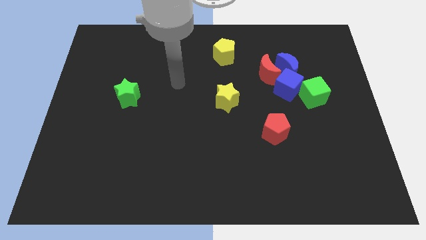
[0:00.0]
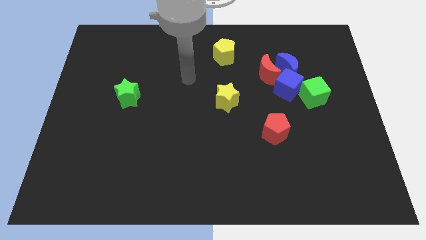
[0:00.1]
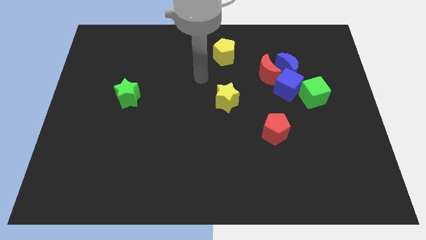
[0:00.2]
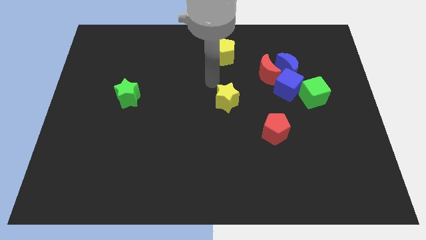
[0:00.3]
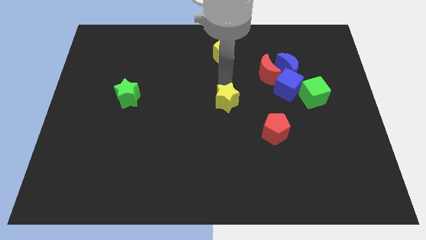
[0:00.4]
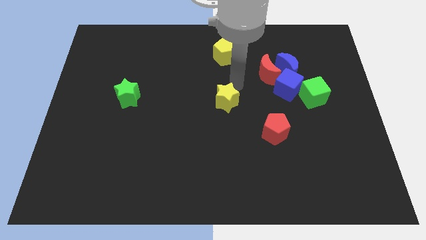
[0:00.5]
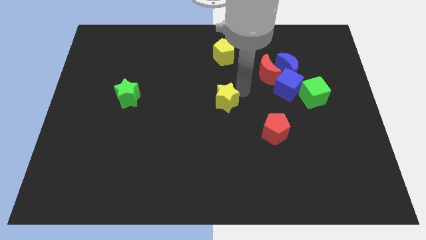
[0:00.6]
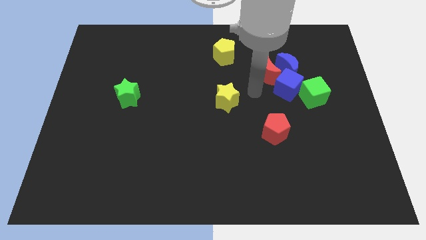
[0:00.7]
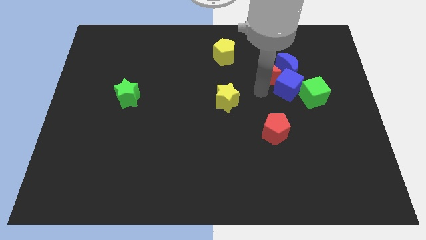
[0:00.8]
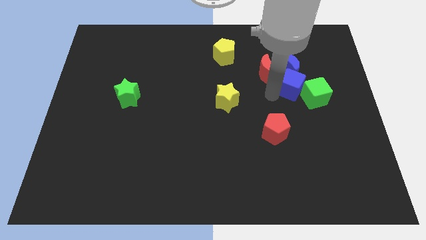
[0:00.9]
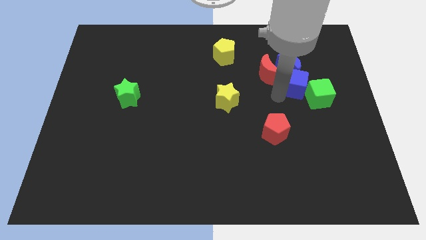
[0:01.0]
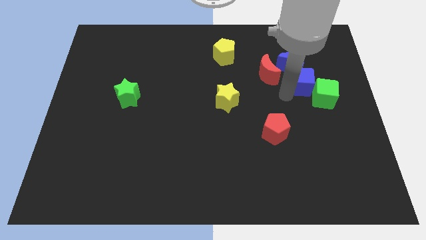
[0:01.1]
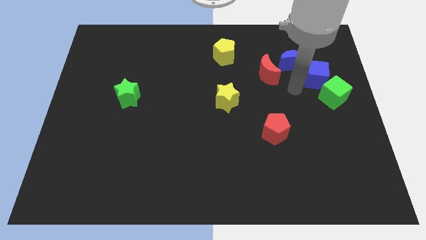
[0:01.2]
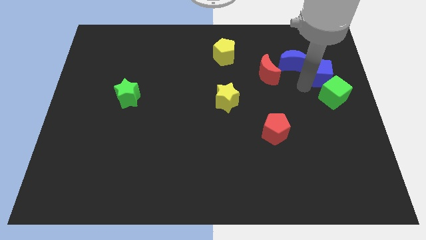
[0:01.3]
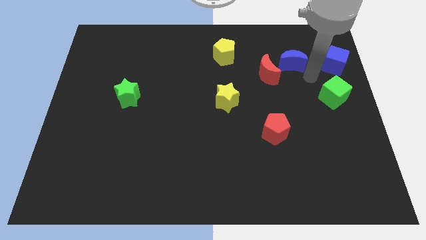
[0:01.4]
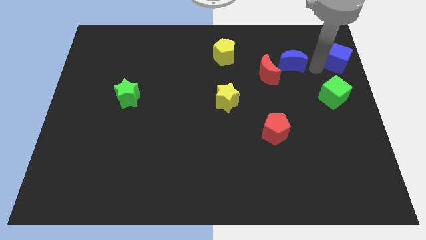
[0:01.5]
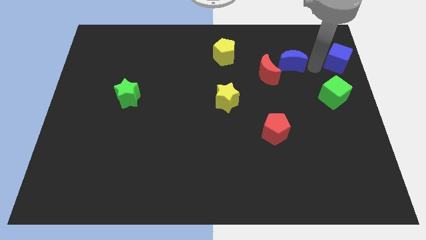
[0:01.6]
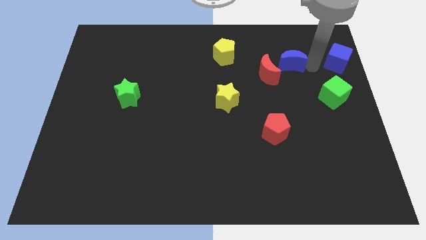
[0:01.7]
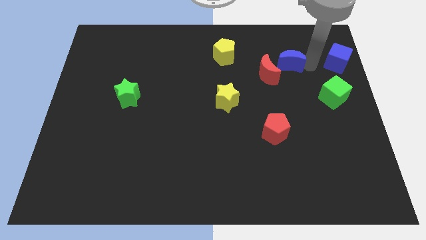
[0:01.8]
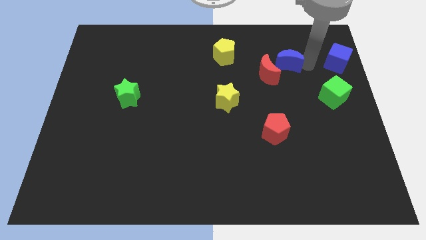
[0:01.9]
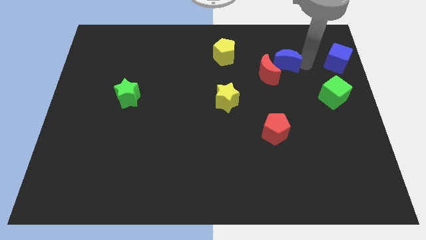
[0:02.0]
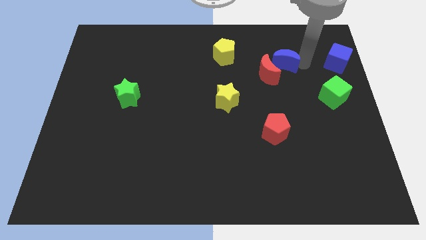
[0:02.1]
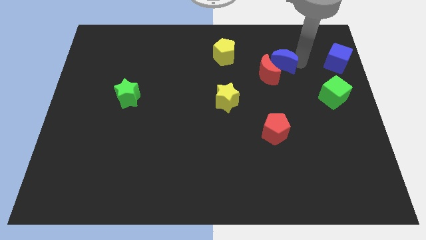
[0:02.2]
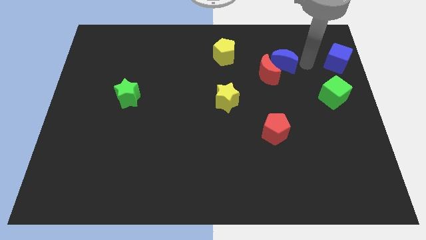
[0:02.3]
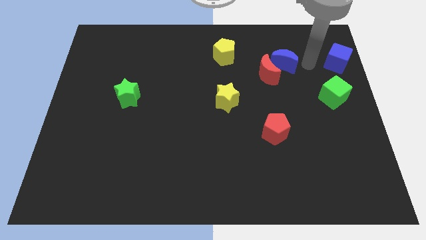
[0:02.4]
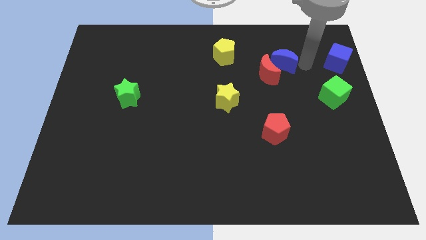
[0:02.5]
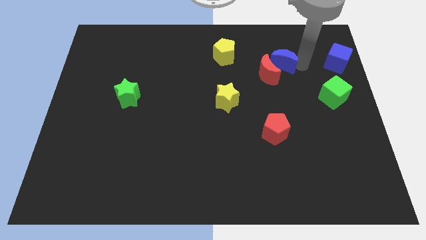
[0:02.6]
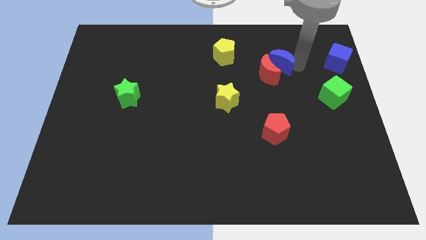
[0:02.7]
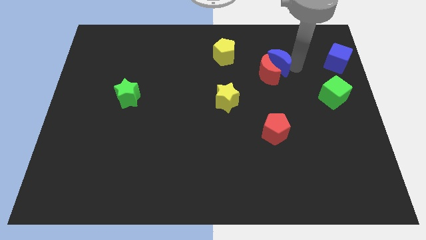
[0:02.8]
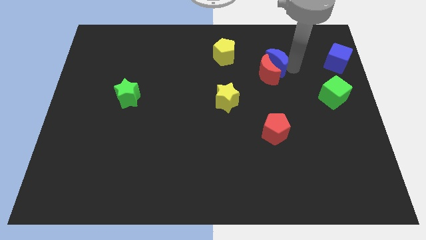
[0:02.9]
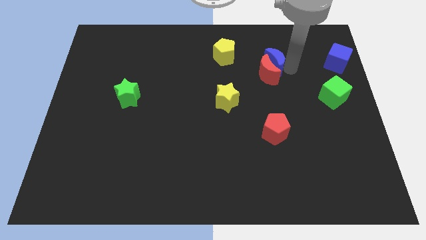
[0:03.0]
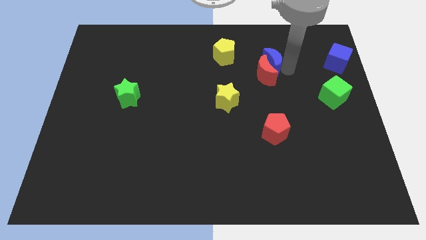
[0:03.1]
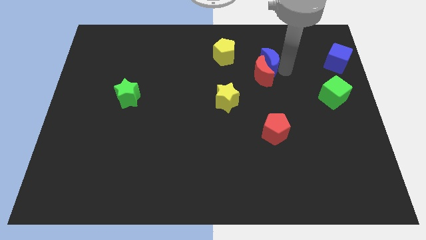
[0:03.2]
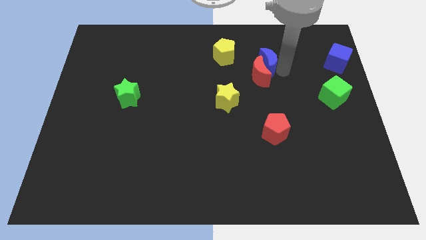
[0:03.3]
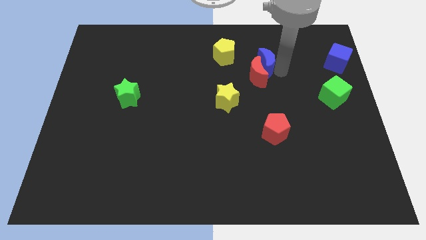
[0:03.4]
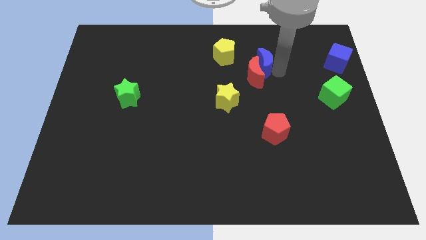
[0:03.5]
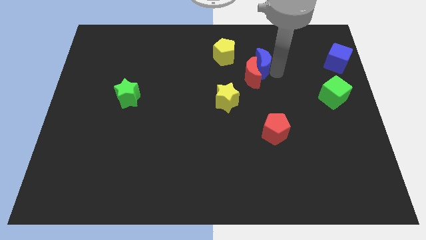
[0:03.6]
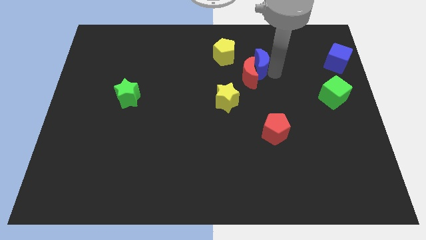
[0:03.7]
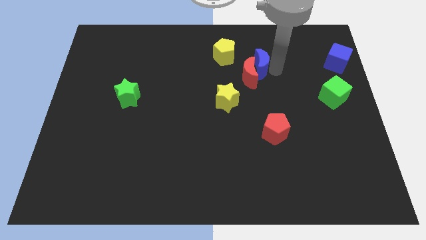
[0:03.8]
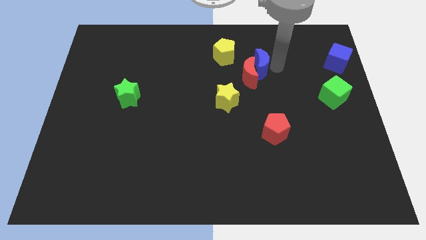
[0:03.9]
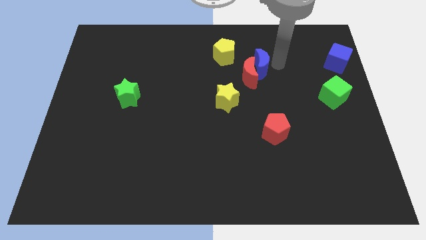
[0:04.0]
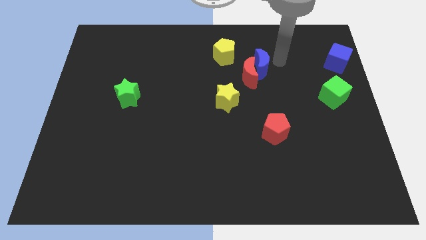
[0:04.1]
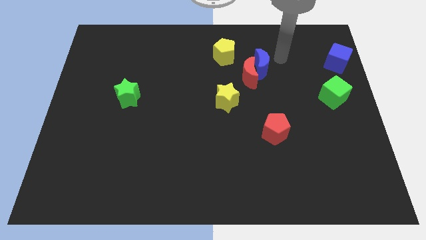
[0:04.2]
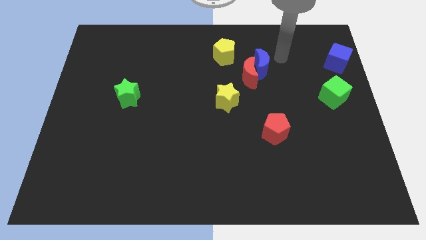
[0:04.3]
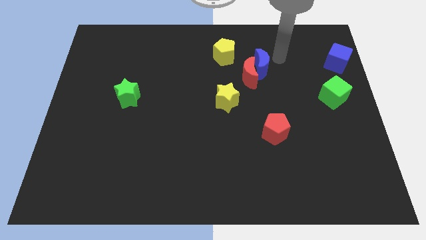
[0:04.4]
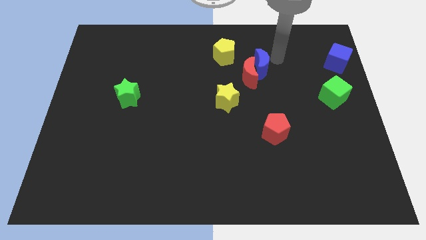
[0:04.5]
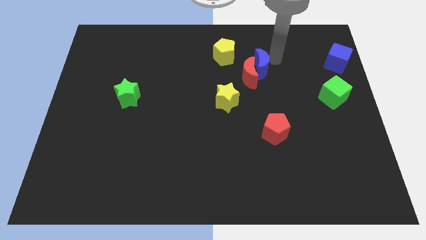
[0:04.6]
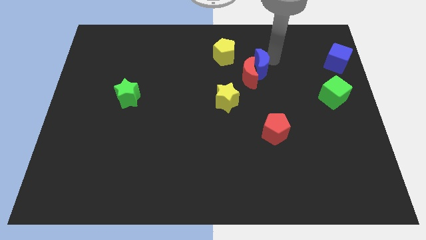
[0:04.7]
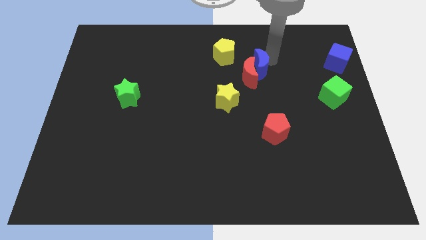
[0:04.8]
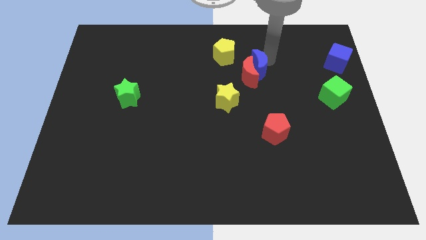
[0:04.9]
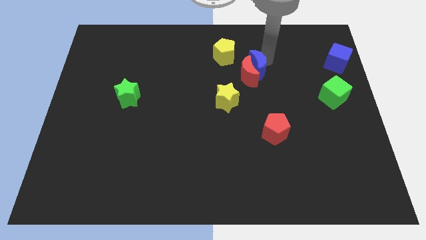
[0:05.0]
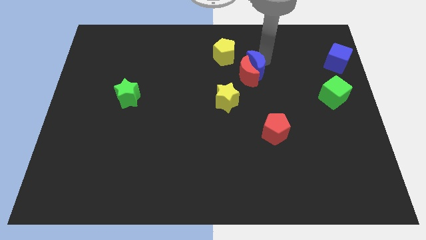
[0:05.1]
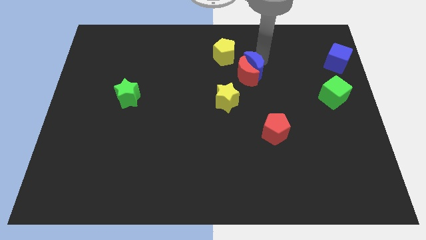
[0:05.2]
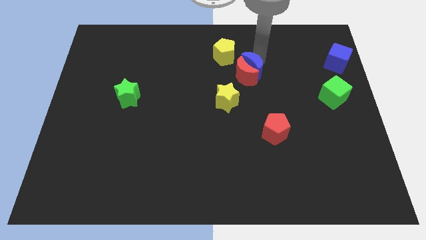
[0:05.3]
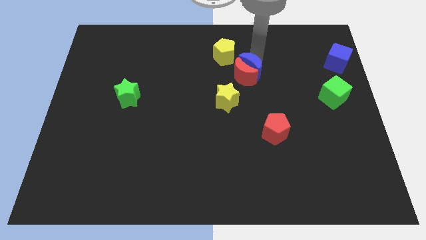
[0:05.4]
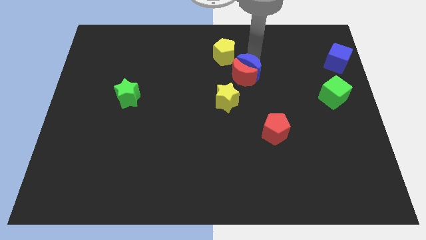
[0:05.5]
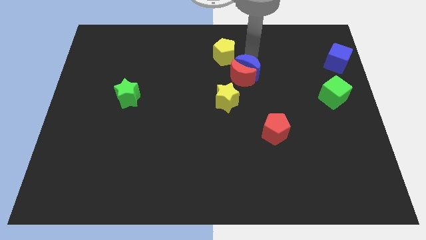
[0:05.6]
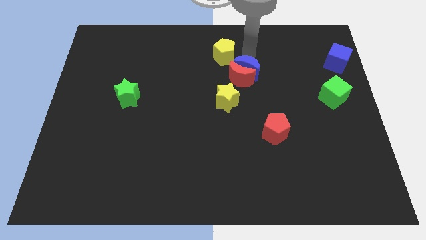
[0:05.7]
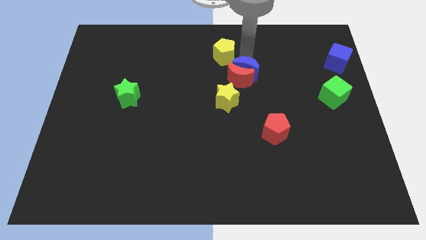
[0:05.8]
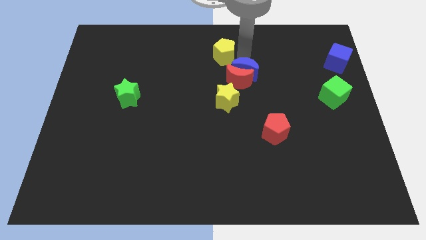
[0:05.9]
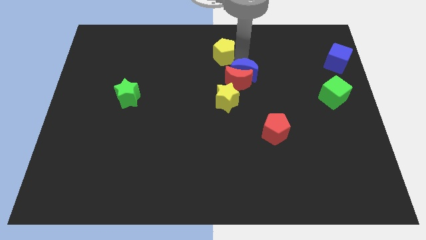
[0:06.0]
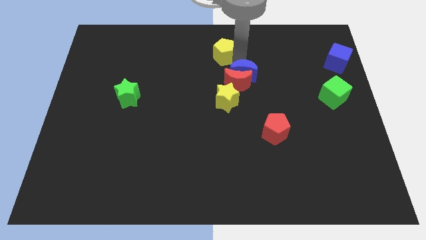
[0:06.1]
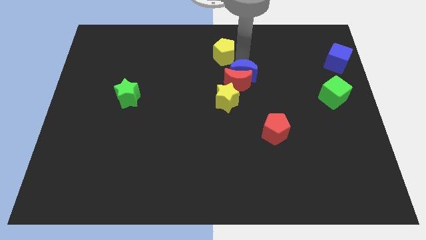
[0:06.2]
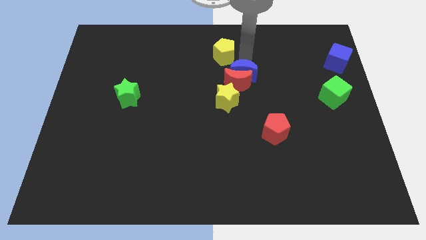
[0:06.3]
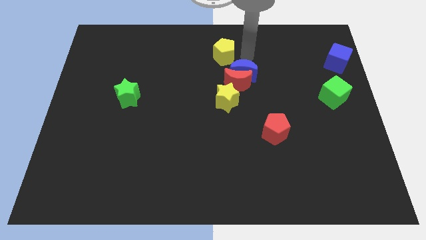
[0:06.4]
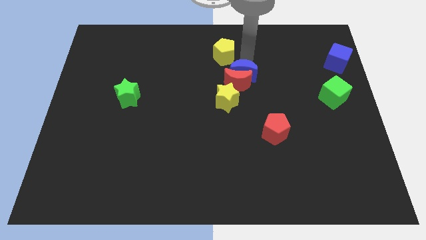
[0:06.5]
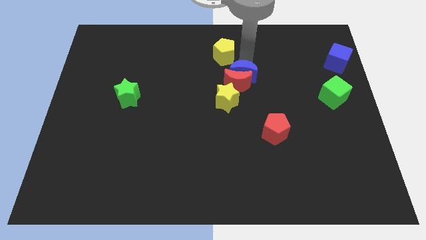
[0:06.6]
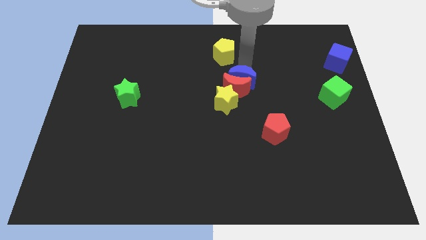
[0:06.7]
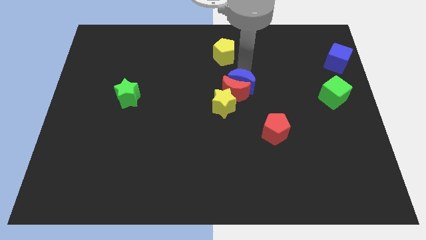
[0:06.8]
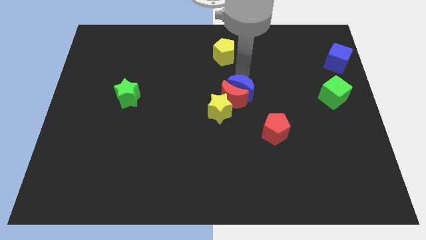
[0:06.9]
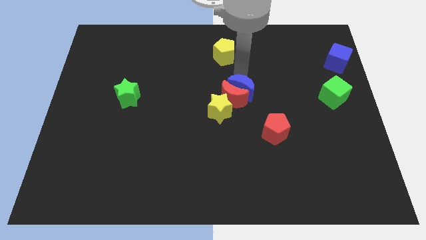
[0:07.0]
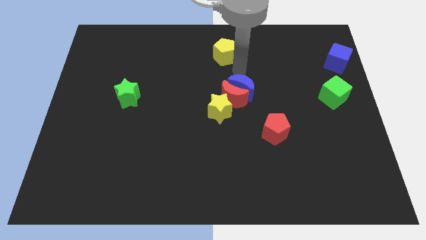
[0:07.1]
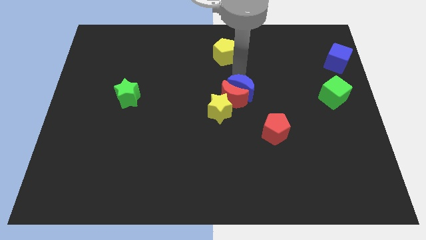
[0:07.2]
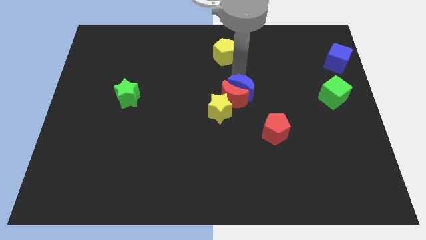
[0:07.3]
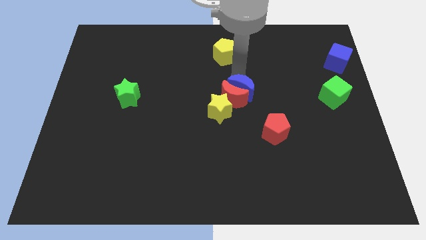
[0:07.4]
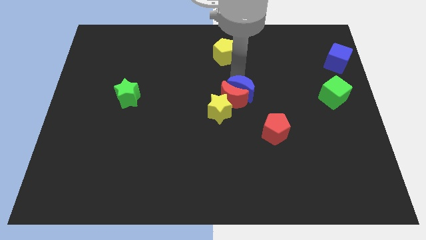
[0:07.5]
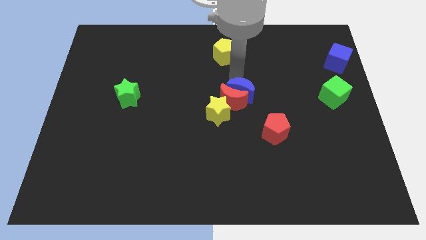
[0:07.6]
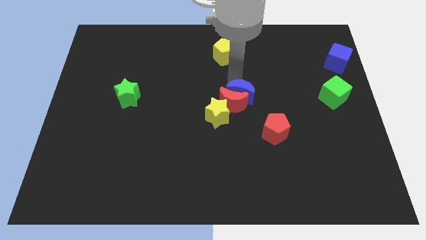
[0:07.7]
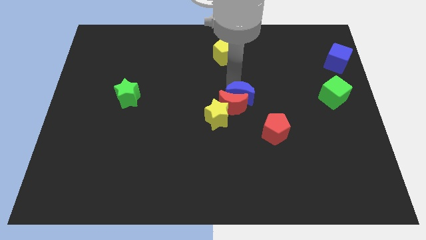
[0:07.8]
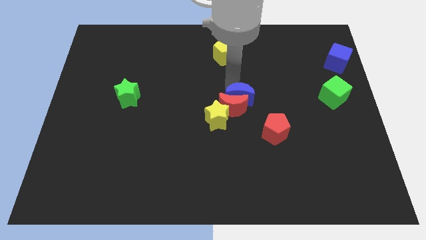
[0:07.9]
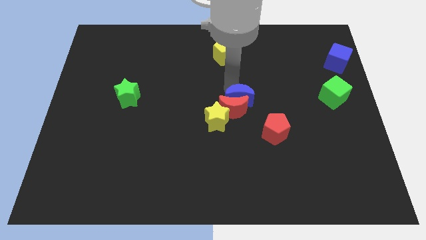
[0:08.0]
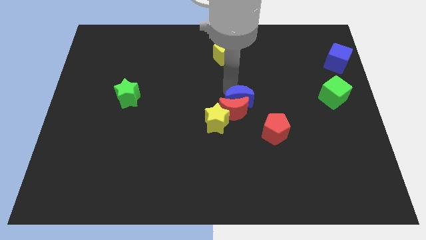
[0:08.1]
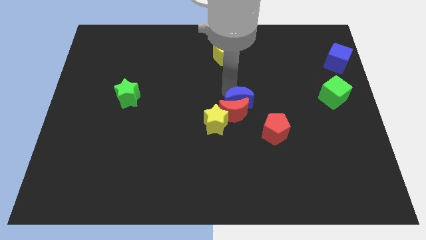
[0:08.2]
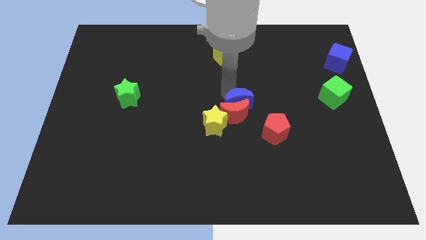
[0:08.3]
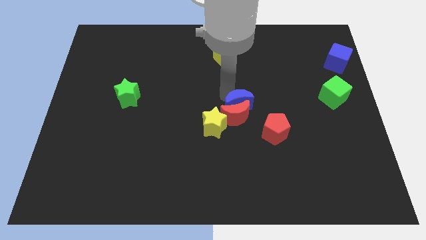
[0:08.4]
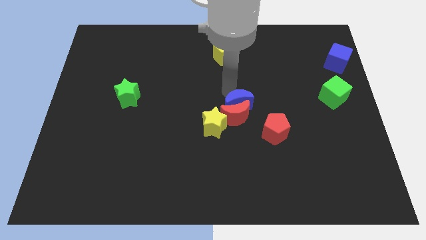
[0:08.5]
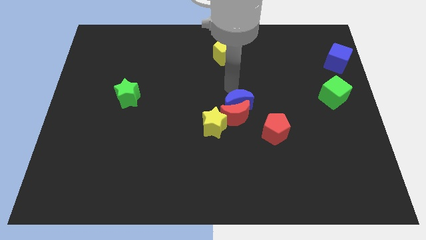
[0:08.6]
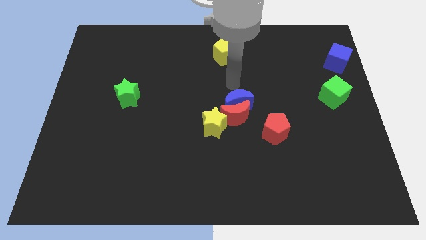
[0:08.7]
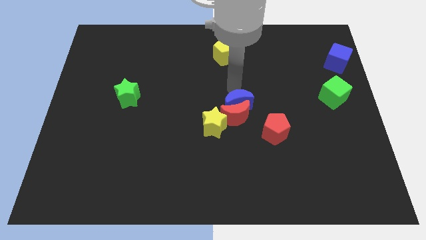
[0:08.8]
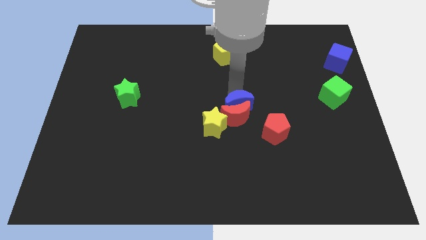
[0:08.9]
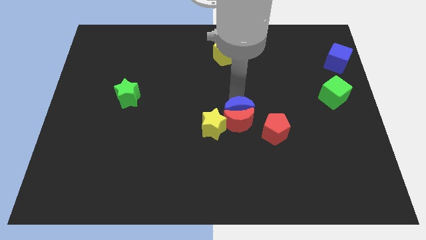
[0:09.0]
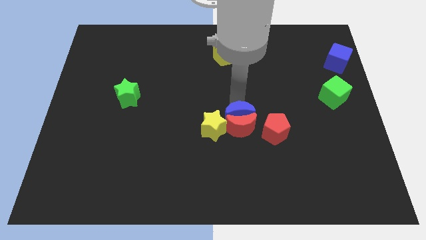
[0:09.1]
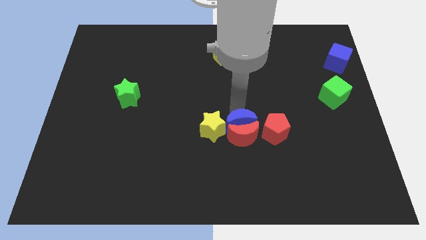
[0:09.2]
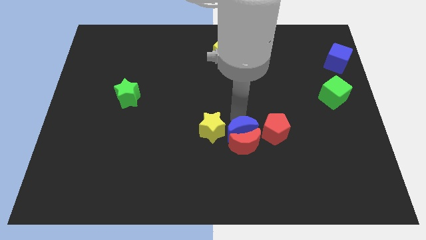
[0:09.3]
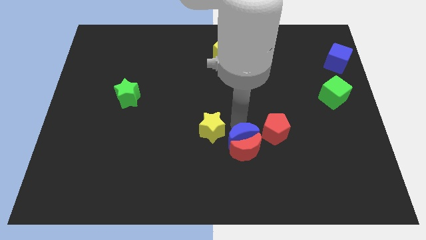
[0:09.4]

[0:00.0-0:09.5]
slide the blue moon to the bottom left of the red pentagon
